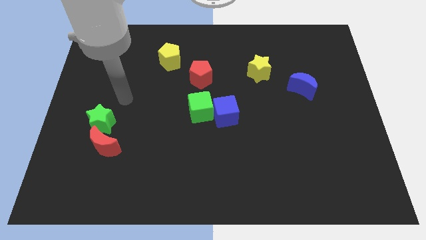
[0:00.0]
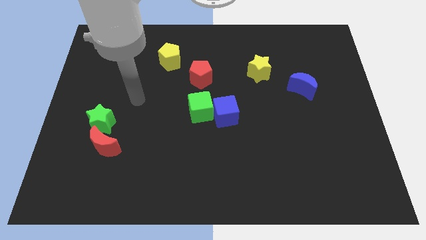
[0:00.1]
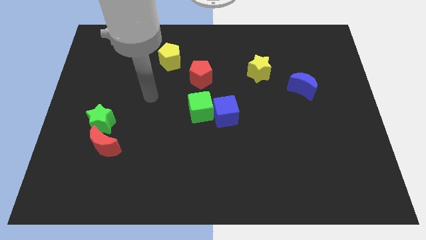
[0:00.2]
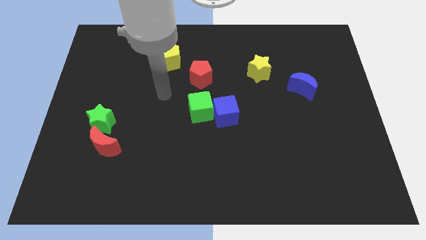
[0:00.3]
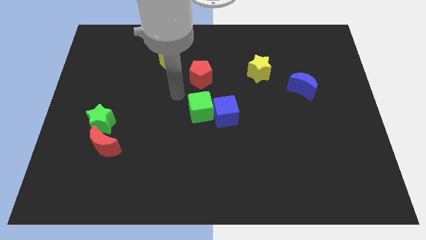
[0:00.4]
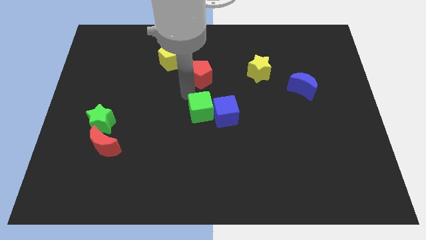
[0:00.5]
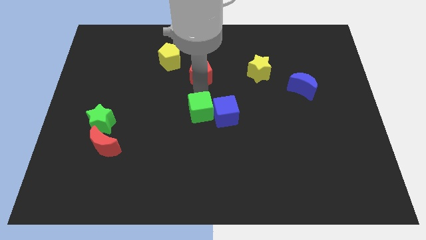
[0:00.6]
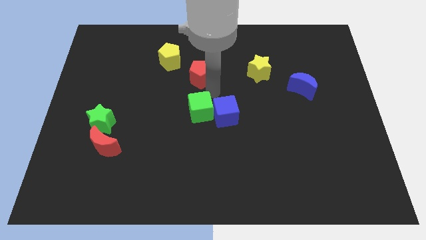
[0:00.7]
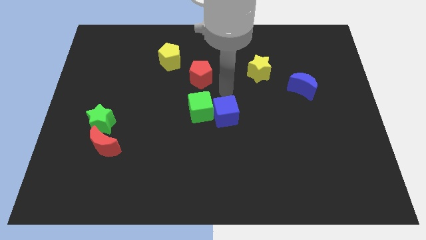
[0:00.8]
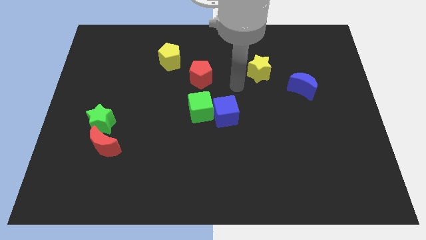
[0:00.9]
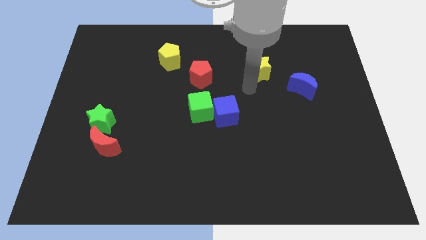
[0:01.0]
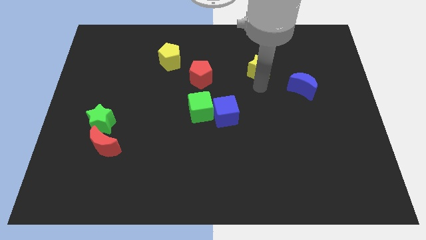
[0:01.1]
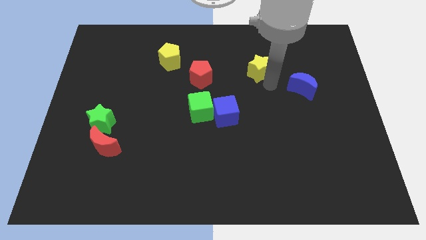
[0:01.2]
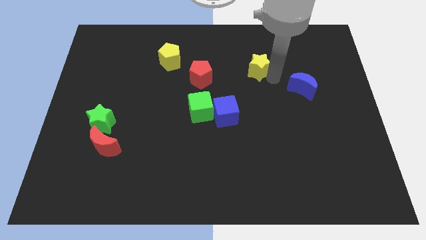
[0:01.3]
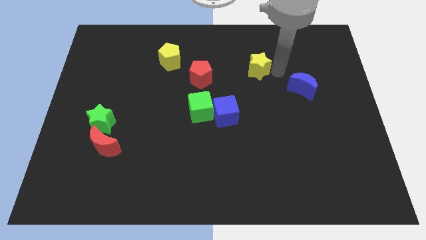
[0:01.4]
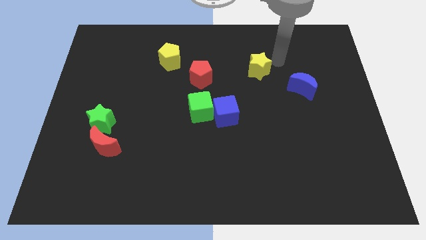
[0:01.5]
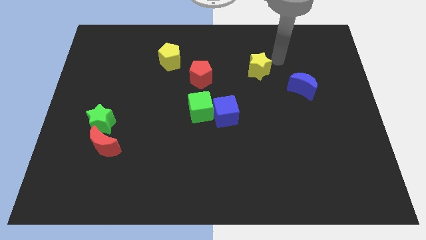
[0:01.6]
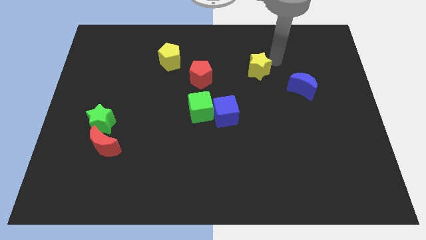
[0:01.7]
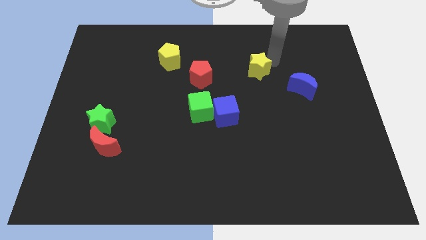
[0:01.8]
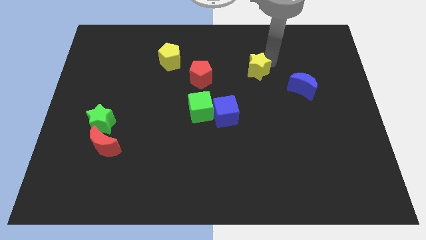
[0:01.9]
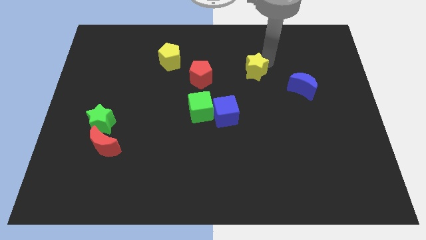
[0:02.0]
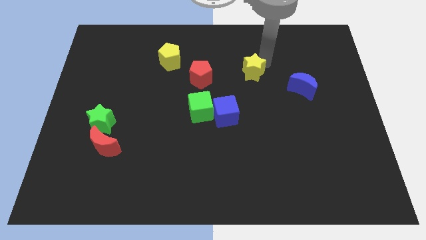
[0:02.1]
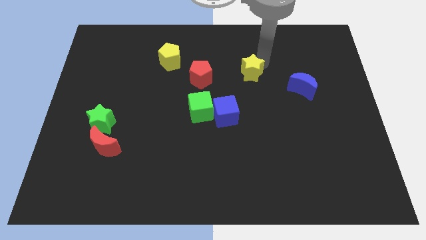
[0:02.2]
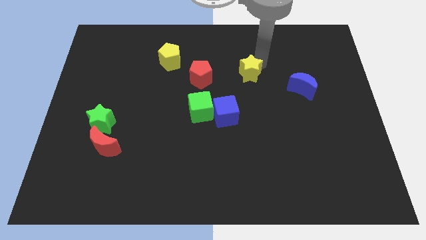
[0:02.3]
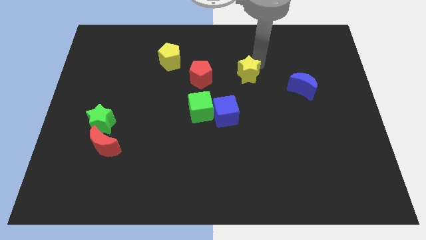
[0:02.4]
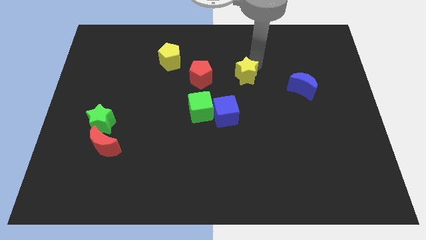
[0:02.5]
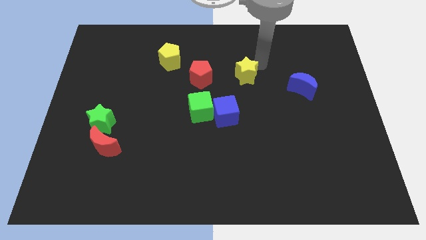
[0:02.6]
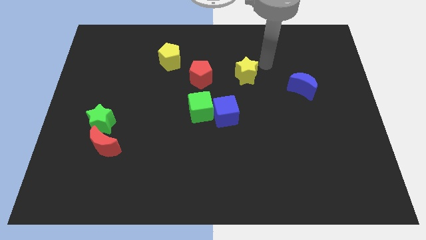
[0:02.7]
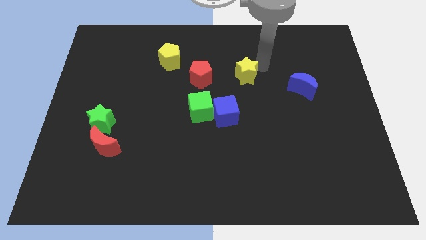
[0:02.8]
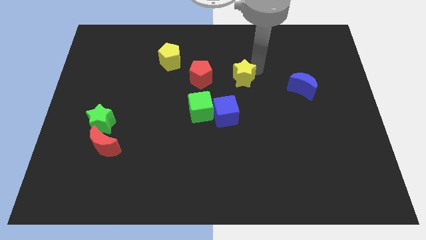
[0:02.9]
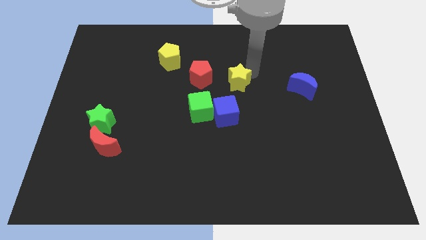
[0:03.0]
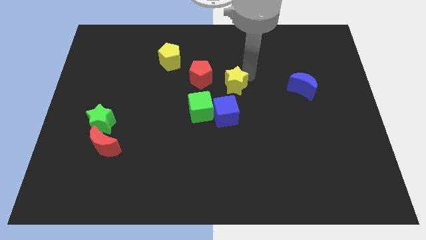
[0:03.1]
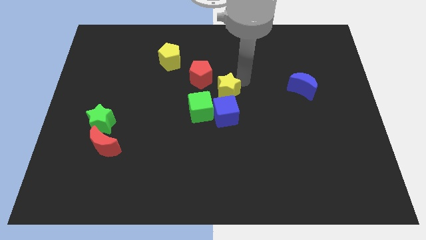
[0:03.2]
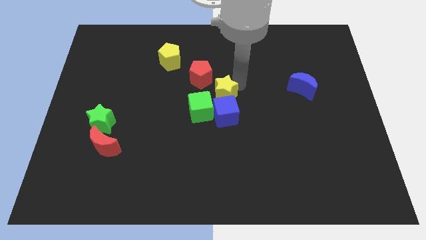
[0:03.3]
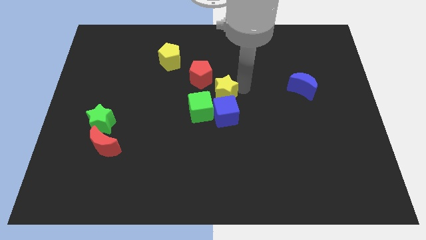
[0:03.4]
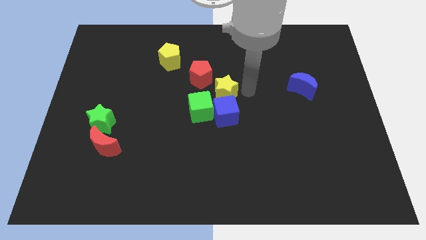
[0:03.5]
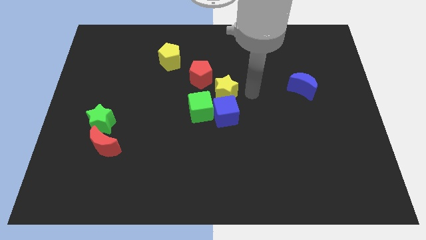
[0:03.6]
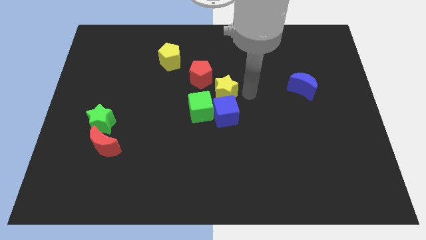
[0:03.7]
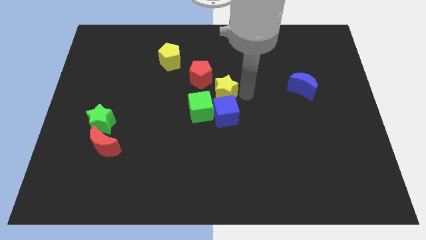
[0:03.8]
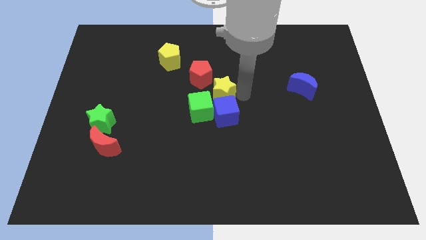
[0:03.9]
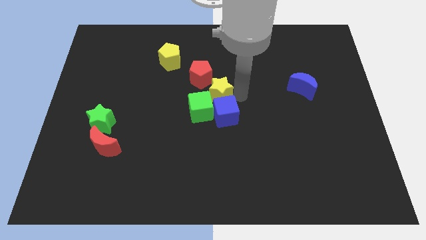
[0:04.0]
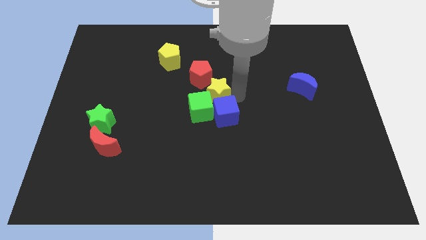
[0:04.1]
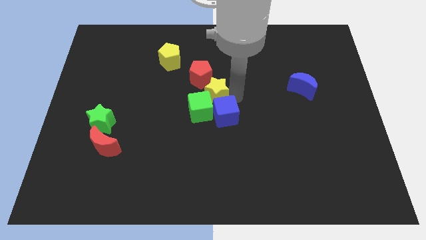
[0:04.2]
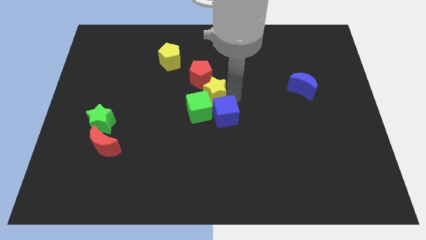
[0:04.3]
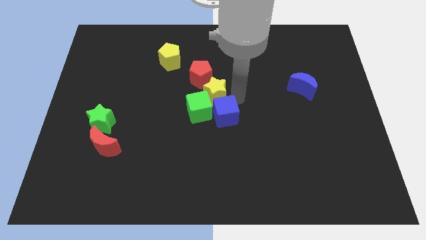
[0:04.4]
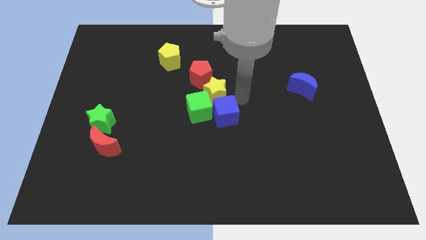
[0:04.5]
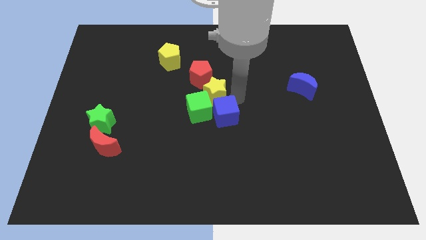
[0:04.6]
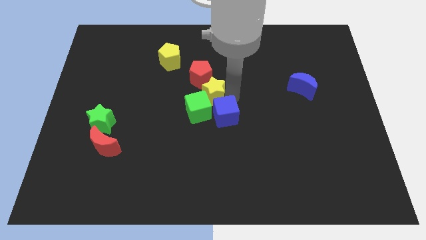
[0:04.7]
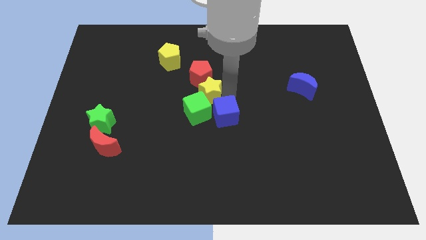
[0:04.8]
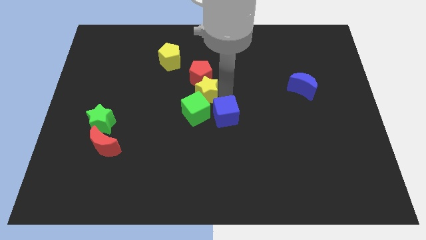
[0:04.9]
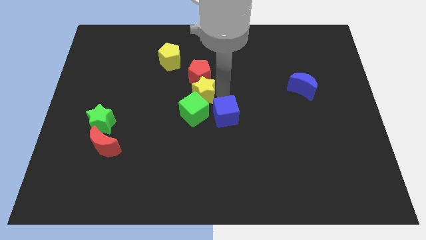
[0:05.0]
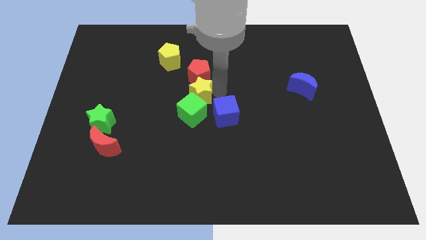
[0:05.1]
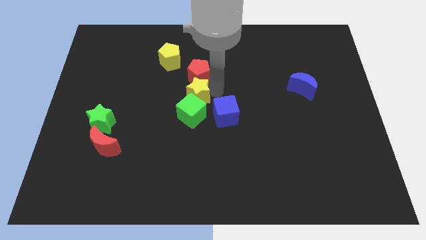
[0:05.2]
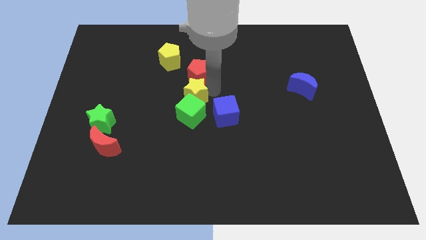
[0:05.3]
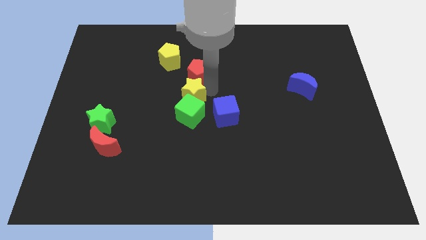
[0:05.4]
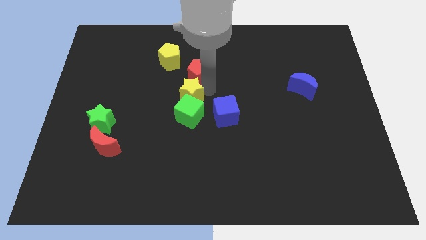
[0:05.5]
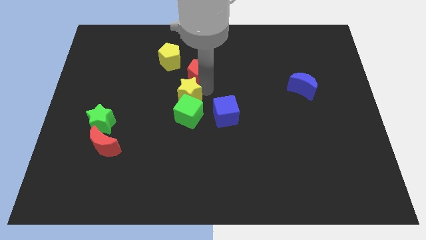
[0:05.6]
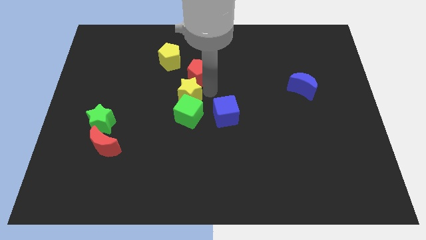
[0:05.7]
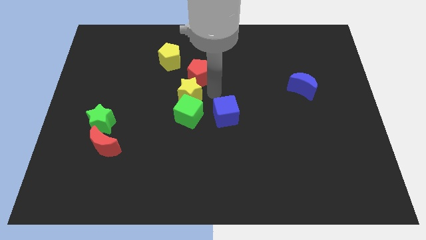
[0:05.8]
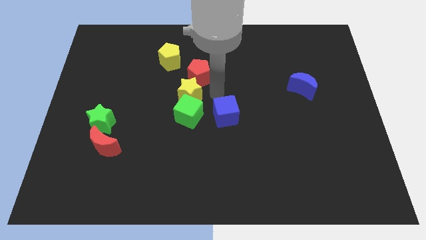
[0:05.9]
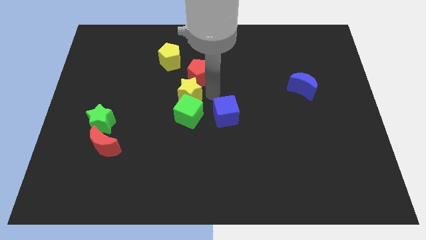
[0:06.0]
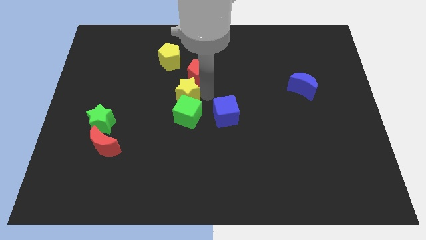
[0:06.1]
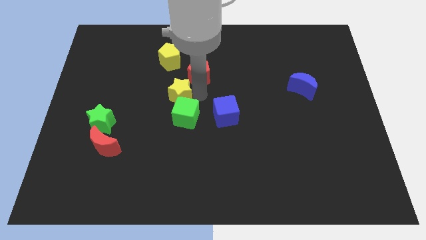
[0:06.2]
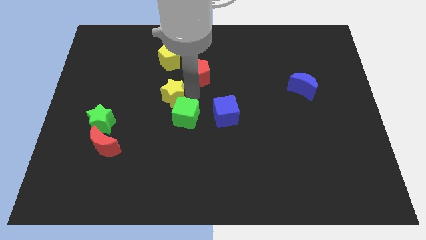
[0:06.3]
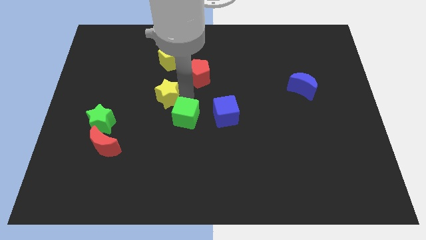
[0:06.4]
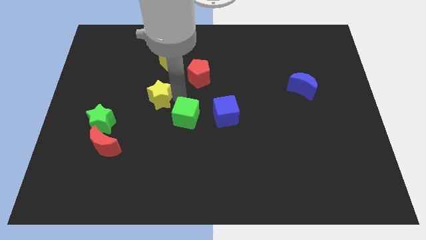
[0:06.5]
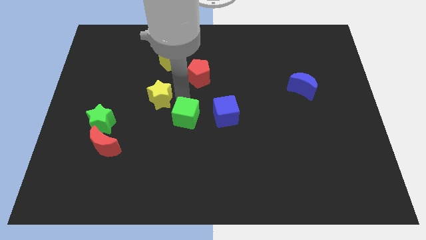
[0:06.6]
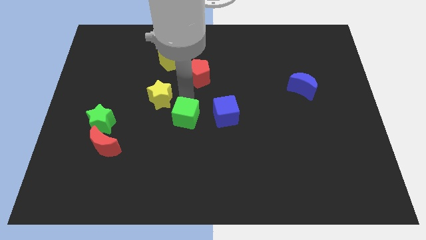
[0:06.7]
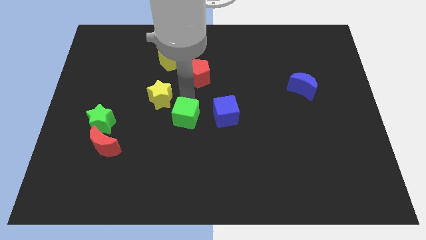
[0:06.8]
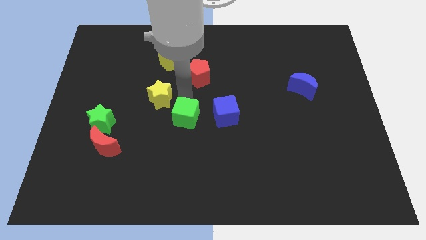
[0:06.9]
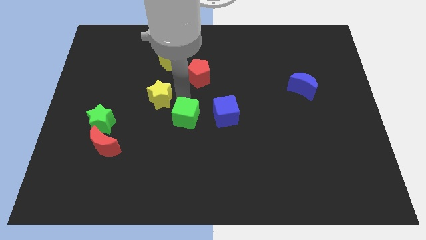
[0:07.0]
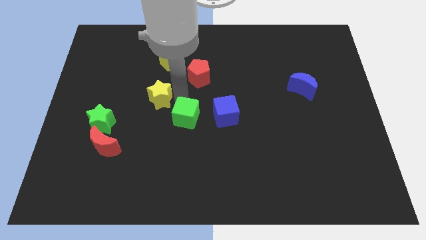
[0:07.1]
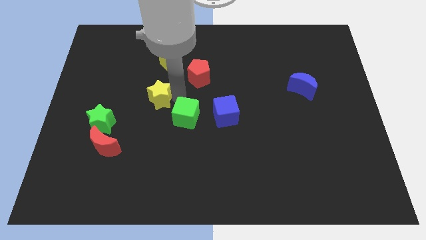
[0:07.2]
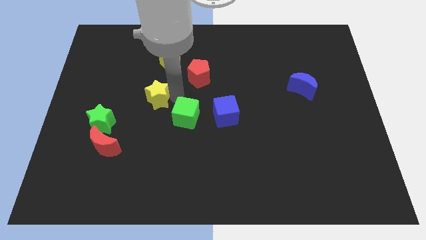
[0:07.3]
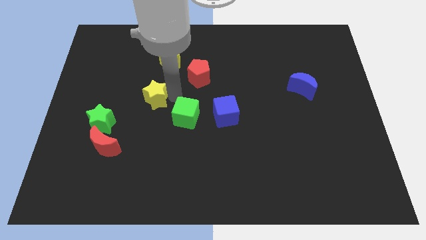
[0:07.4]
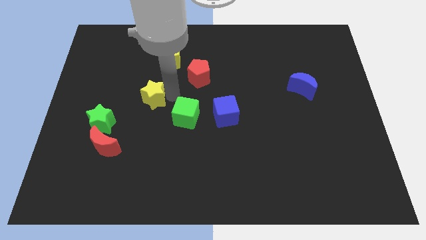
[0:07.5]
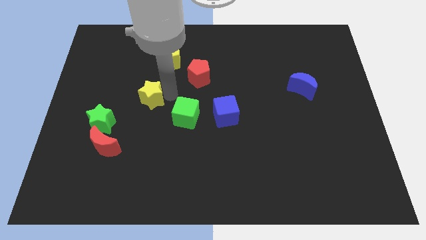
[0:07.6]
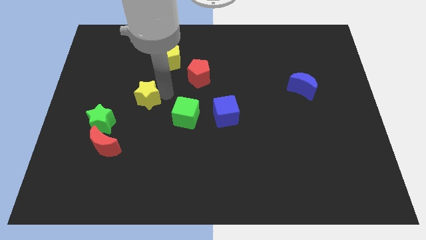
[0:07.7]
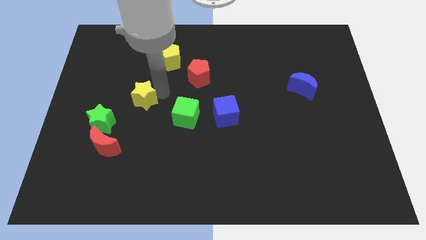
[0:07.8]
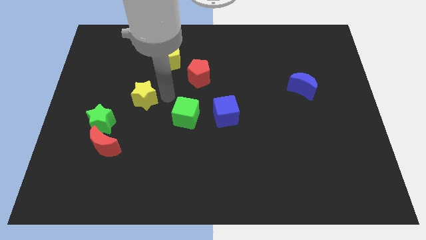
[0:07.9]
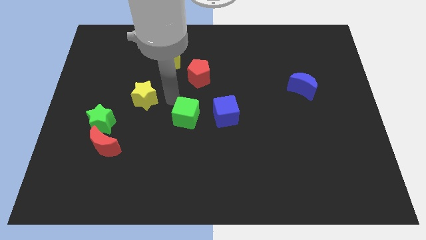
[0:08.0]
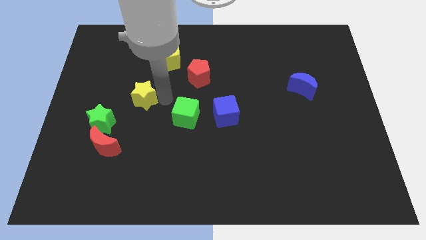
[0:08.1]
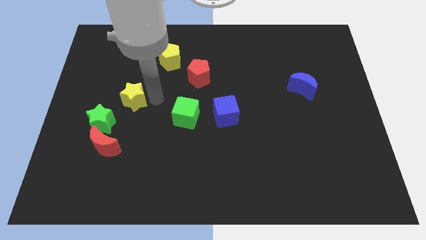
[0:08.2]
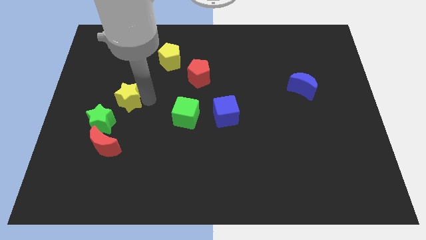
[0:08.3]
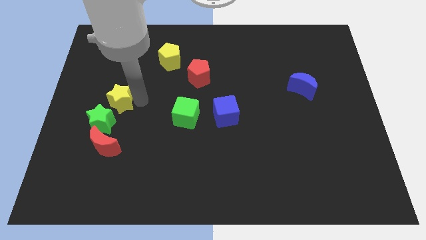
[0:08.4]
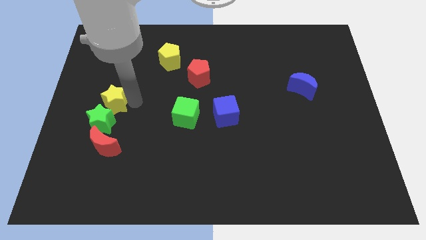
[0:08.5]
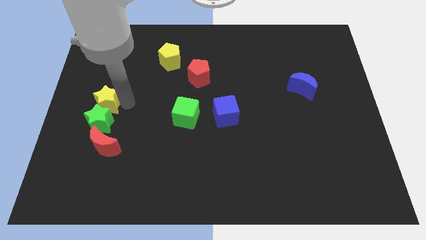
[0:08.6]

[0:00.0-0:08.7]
move the yellow star to the left side of the board
